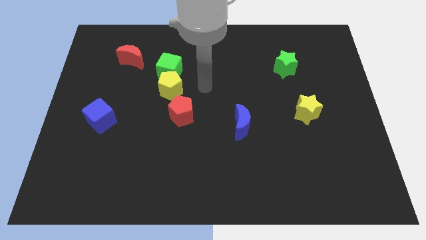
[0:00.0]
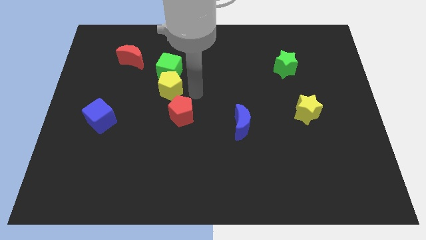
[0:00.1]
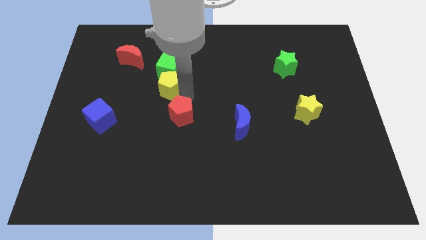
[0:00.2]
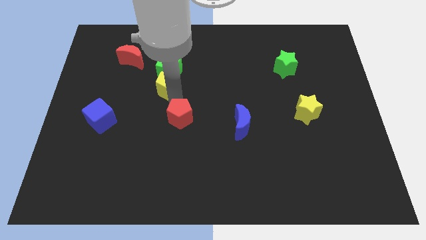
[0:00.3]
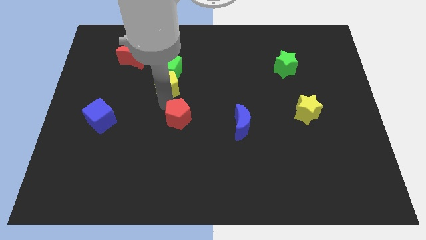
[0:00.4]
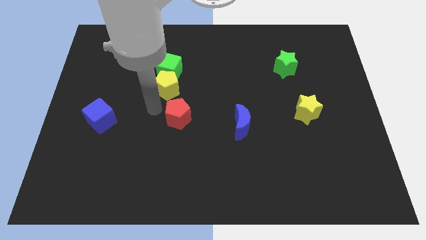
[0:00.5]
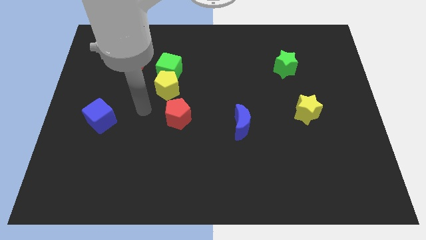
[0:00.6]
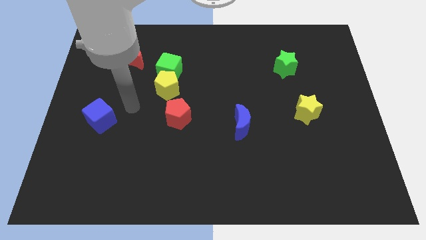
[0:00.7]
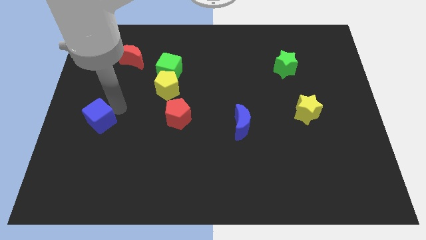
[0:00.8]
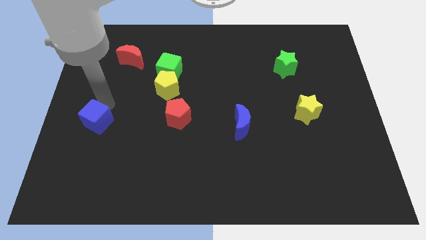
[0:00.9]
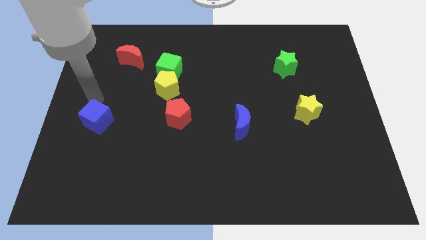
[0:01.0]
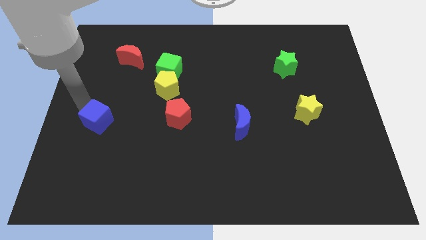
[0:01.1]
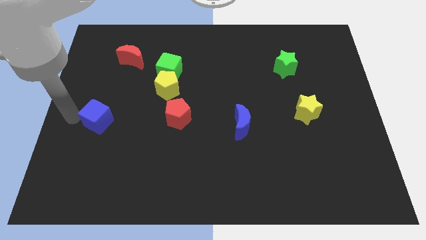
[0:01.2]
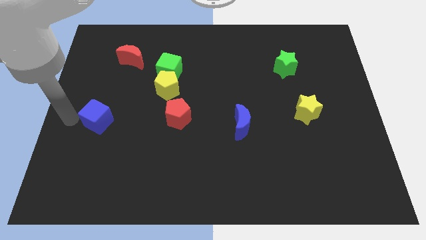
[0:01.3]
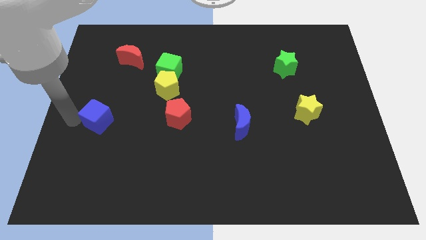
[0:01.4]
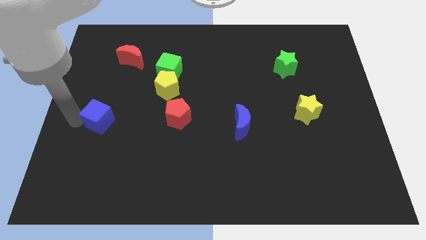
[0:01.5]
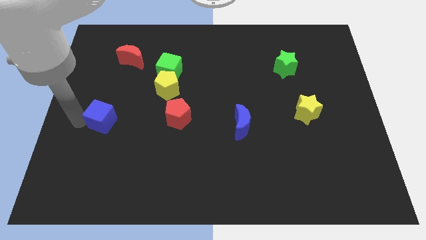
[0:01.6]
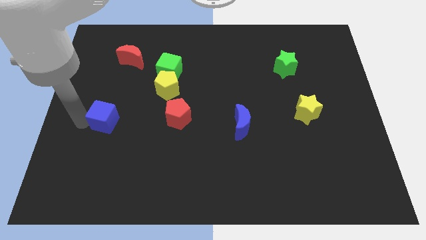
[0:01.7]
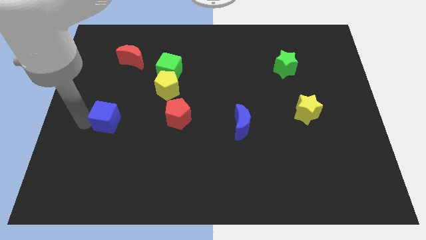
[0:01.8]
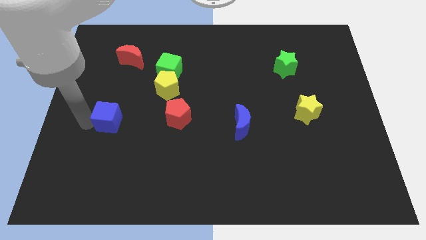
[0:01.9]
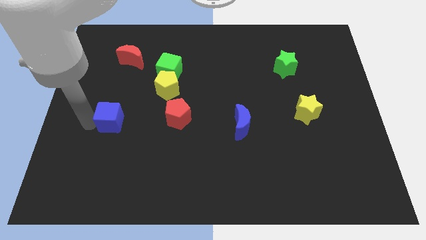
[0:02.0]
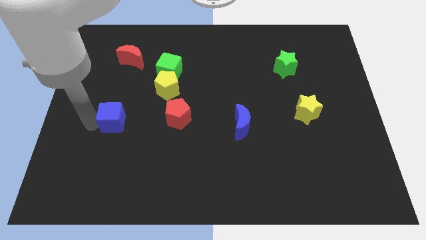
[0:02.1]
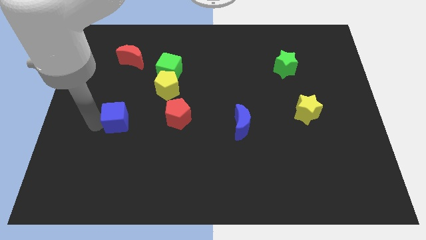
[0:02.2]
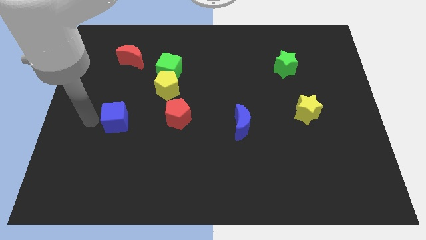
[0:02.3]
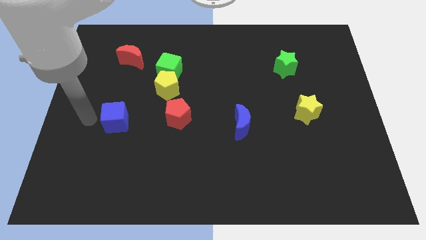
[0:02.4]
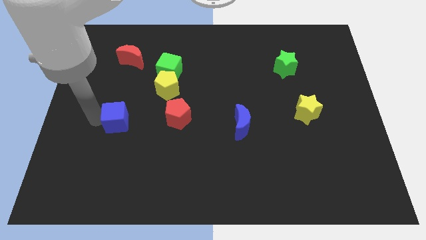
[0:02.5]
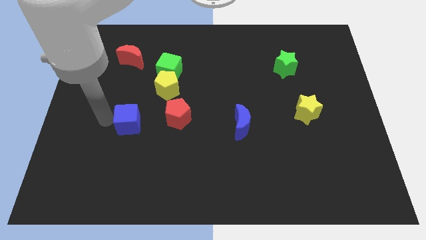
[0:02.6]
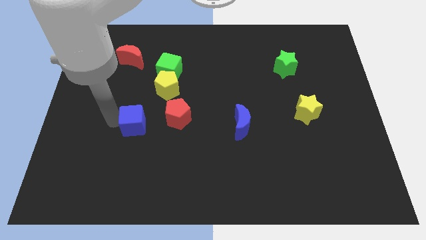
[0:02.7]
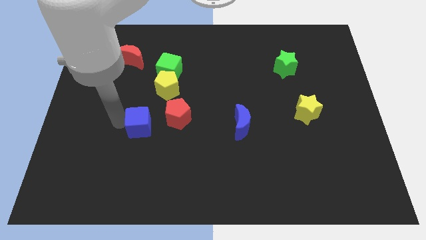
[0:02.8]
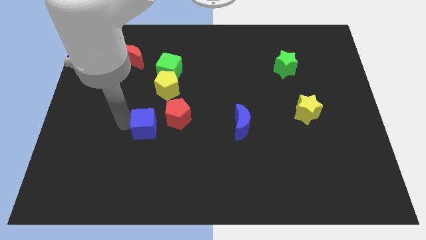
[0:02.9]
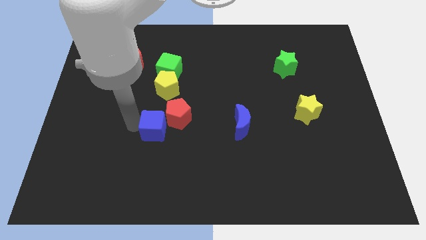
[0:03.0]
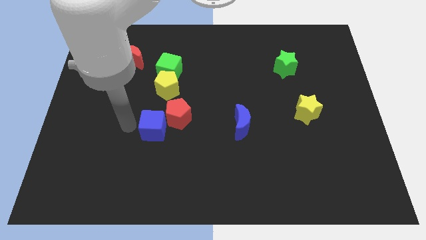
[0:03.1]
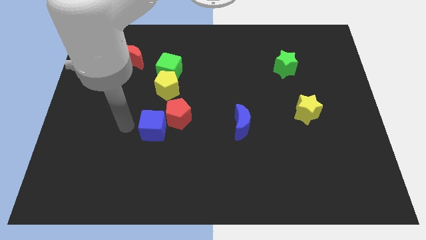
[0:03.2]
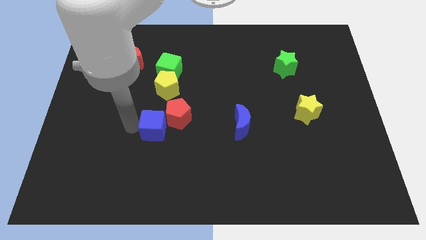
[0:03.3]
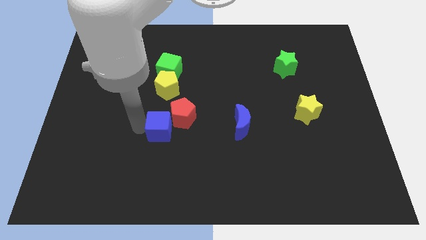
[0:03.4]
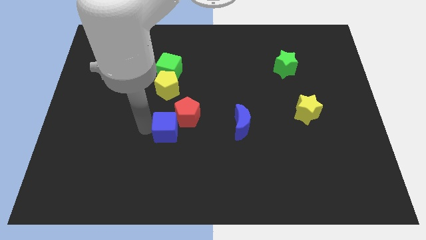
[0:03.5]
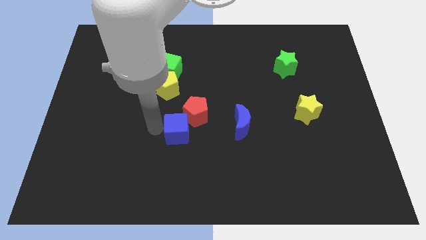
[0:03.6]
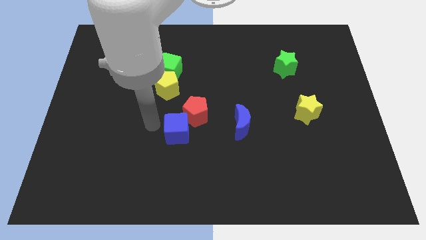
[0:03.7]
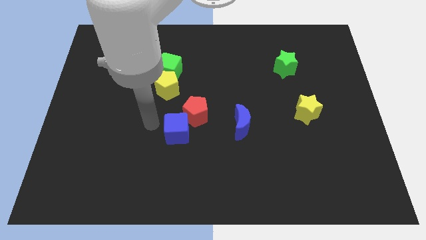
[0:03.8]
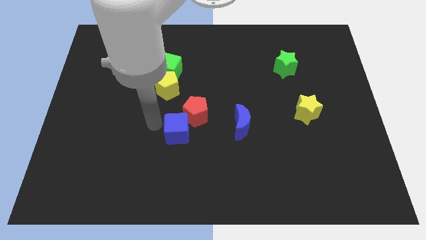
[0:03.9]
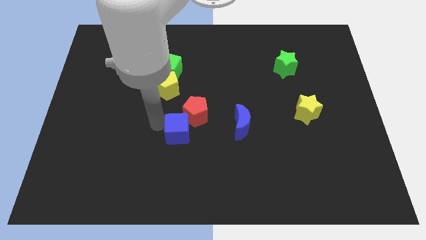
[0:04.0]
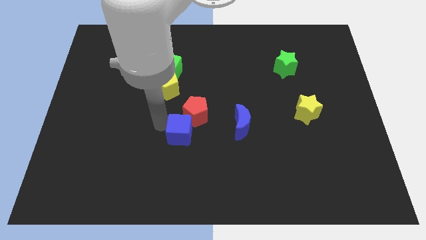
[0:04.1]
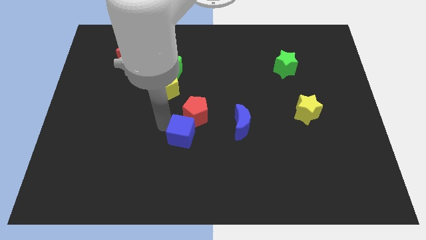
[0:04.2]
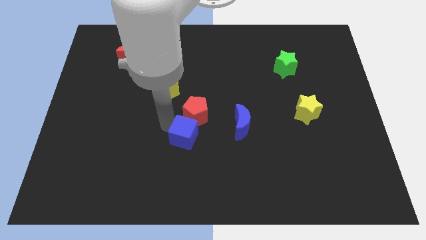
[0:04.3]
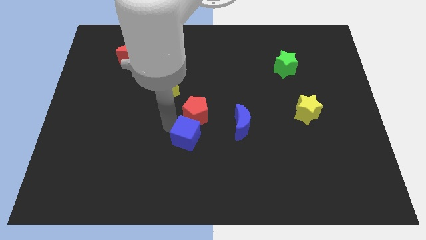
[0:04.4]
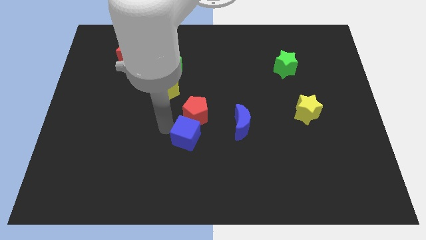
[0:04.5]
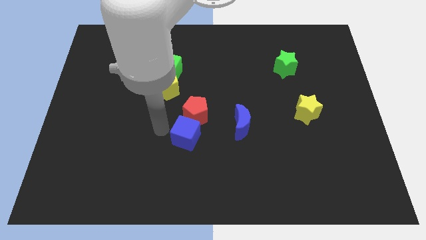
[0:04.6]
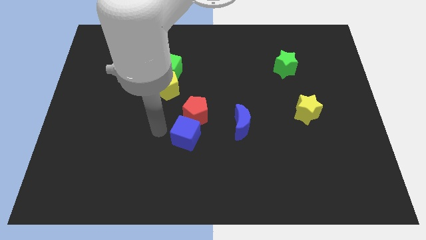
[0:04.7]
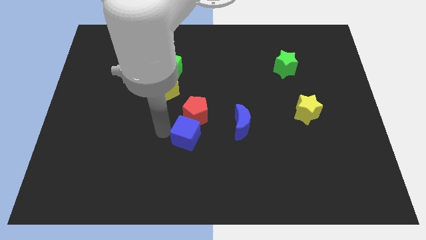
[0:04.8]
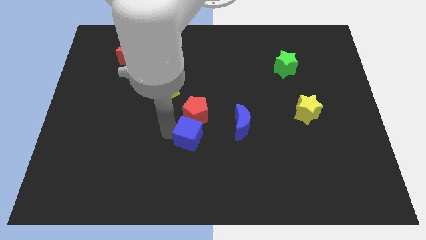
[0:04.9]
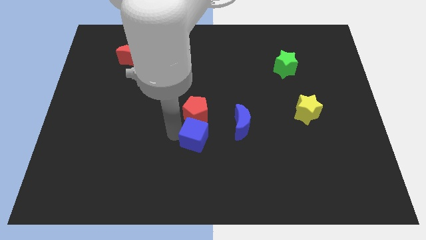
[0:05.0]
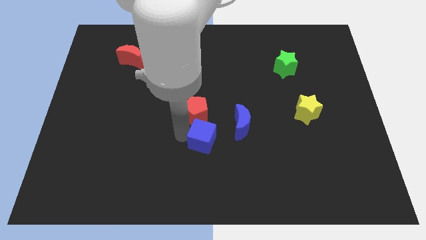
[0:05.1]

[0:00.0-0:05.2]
put the blue cube diagonally down and to the left of the blue moon

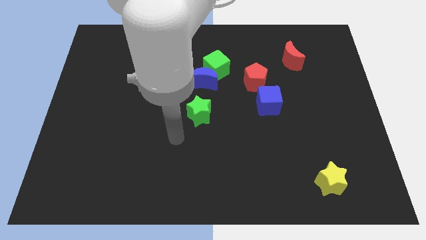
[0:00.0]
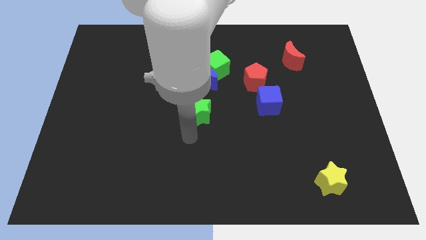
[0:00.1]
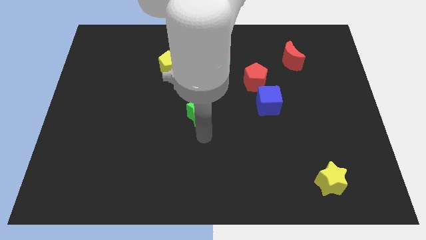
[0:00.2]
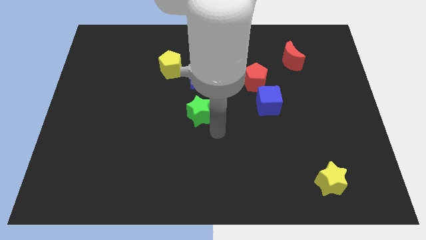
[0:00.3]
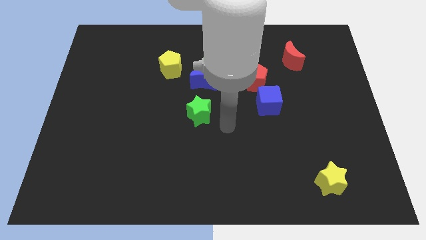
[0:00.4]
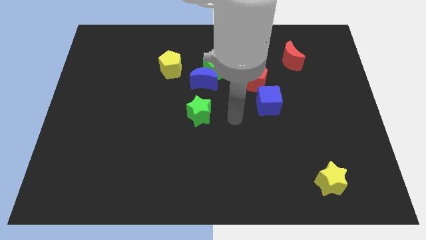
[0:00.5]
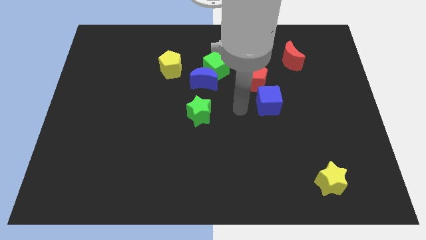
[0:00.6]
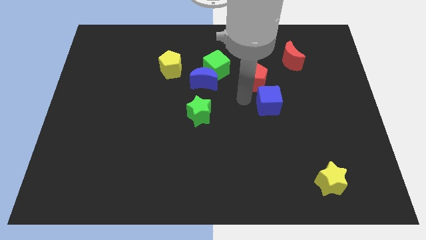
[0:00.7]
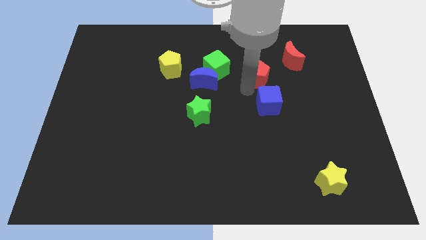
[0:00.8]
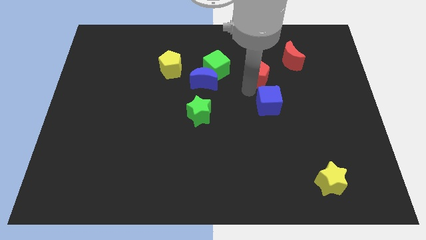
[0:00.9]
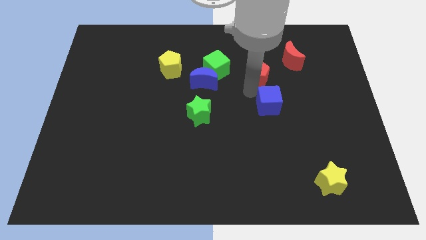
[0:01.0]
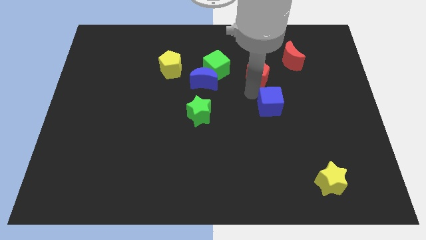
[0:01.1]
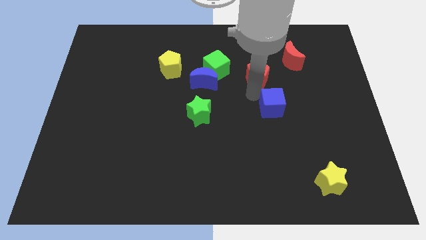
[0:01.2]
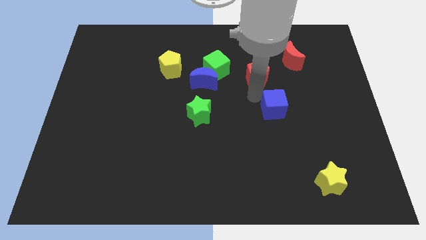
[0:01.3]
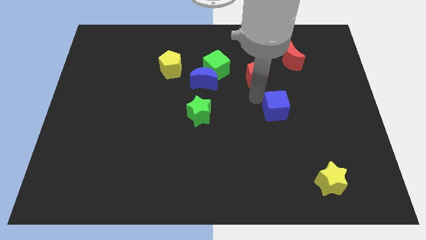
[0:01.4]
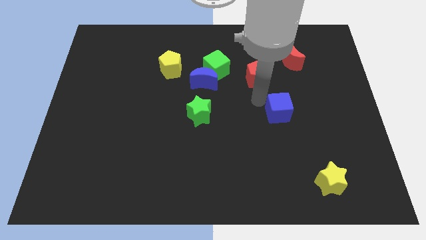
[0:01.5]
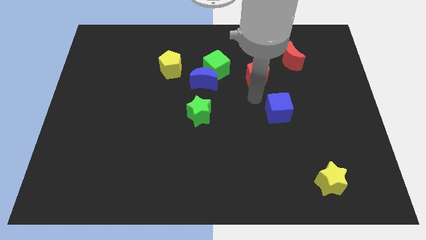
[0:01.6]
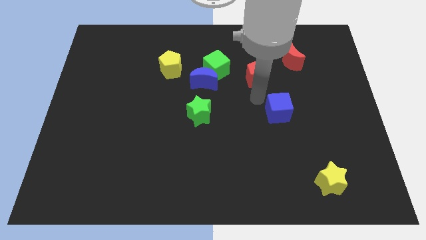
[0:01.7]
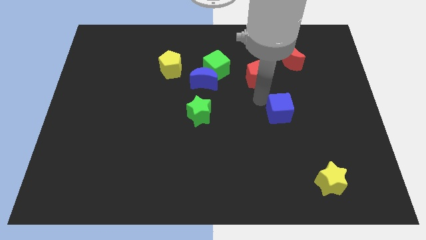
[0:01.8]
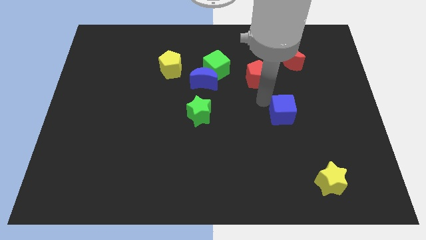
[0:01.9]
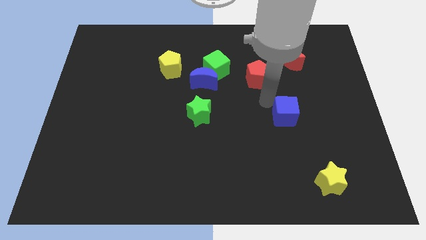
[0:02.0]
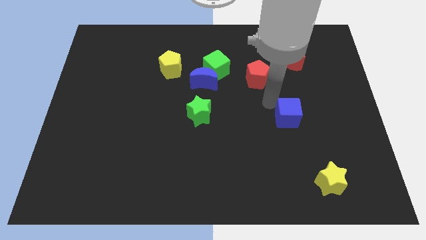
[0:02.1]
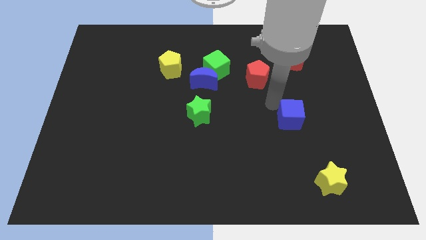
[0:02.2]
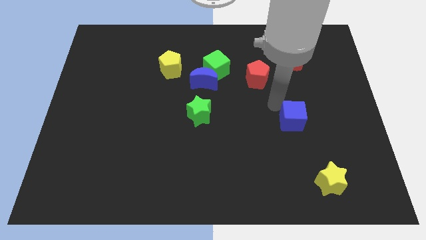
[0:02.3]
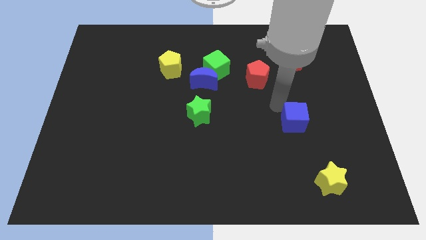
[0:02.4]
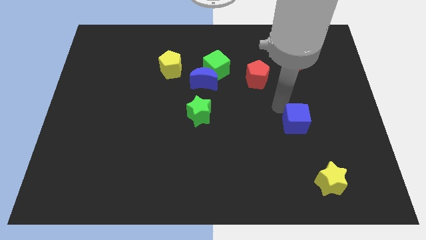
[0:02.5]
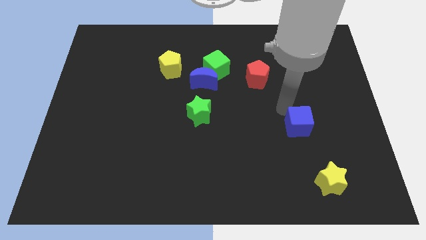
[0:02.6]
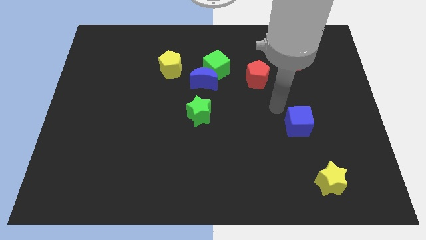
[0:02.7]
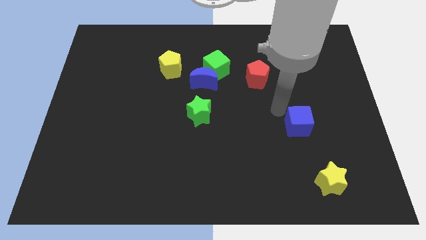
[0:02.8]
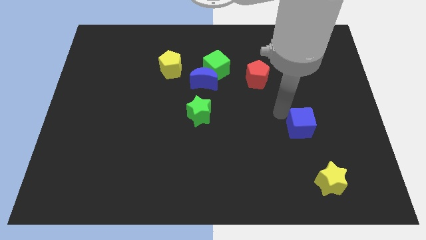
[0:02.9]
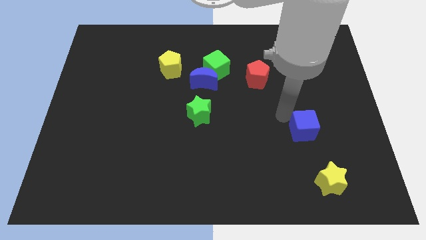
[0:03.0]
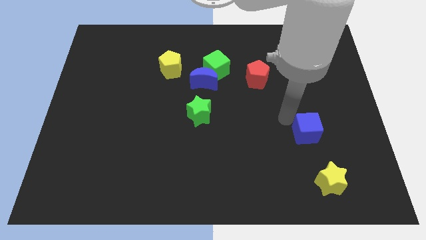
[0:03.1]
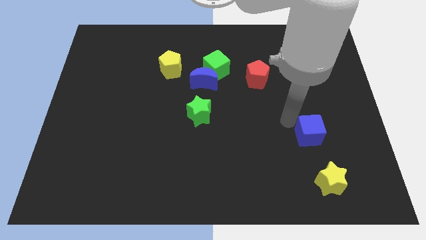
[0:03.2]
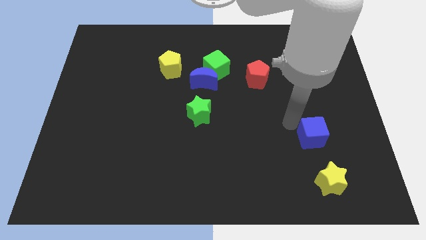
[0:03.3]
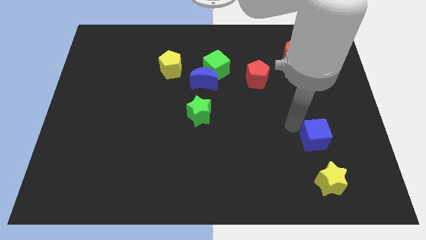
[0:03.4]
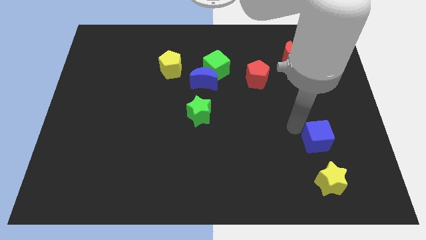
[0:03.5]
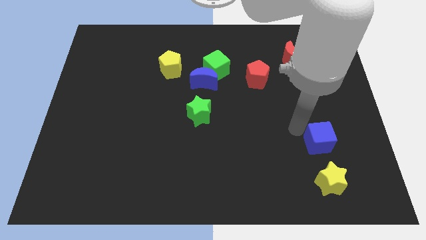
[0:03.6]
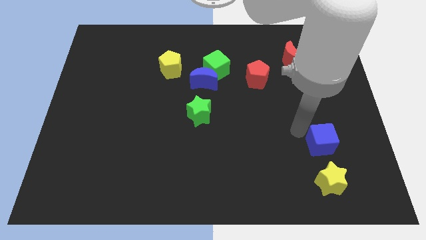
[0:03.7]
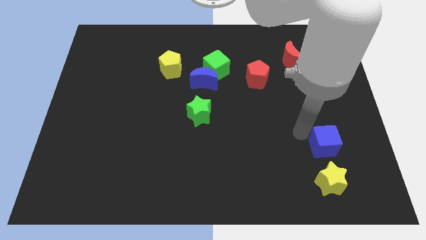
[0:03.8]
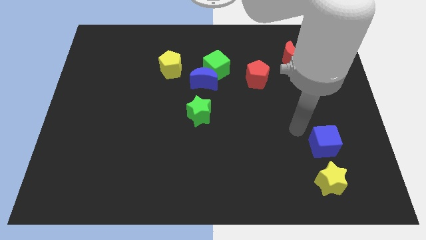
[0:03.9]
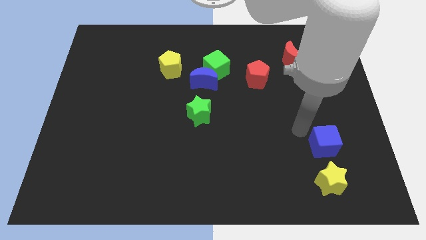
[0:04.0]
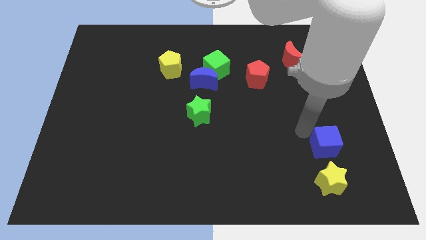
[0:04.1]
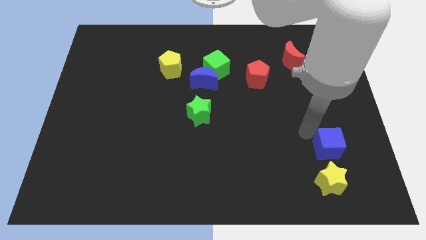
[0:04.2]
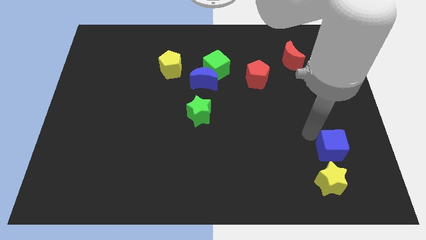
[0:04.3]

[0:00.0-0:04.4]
put the blue cube to the top right side of the yellow star
